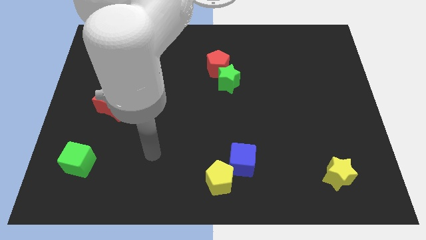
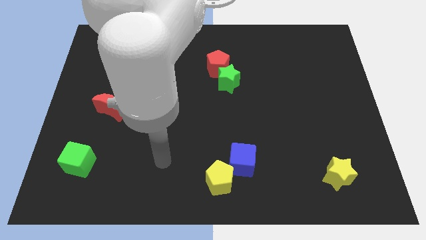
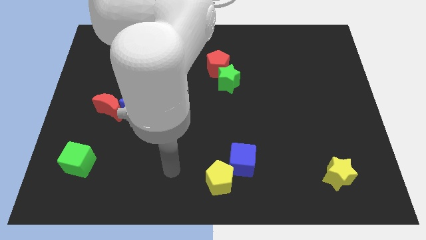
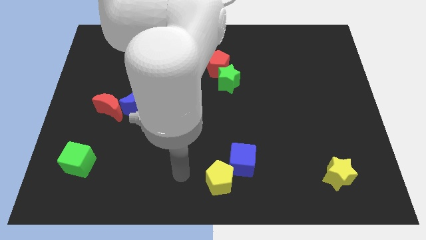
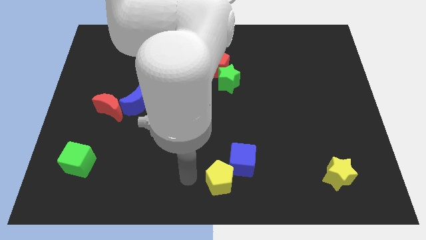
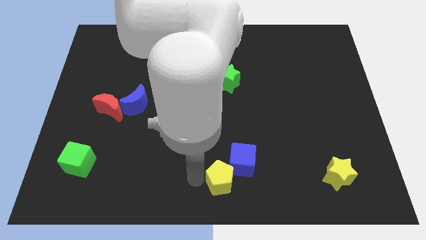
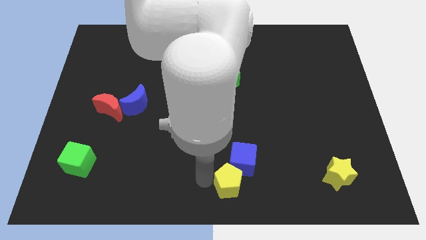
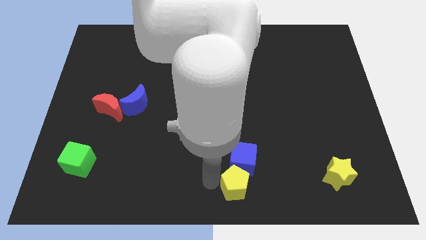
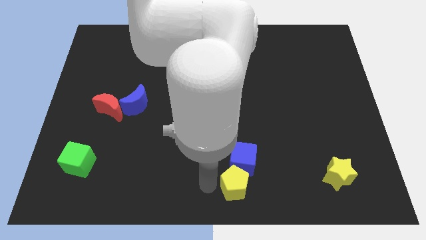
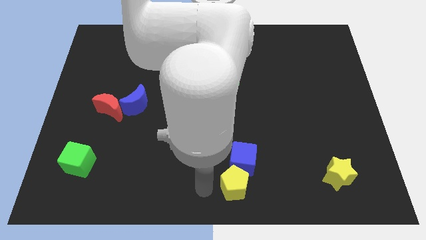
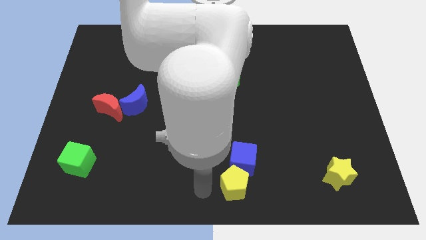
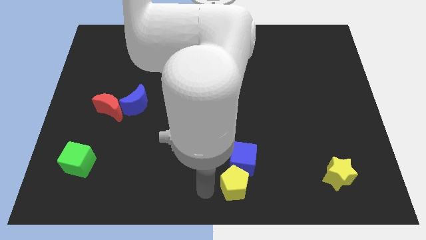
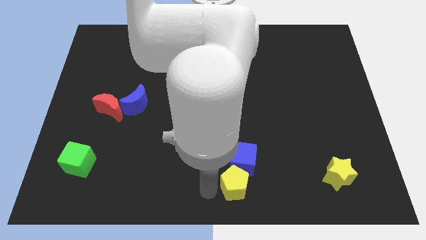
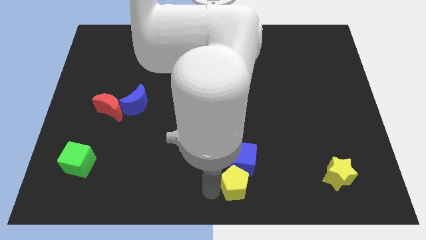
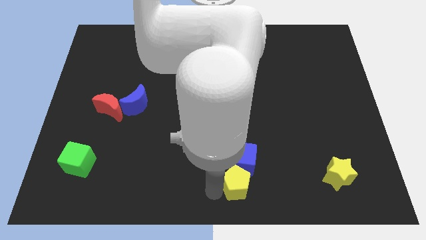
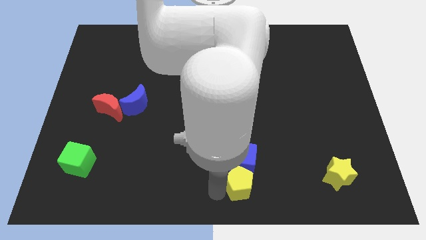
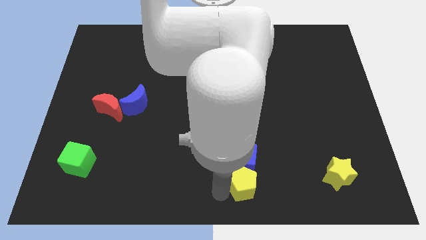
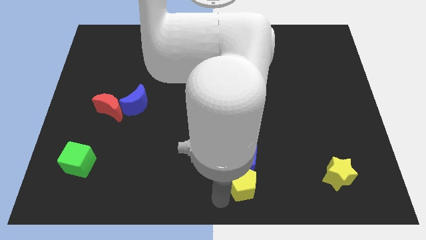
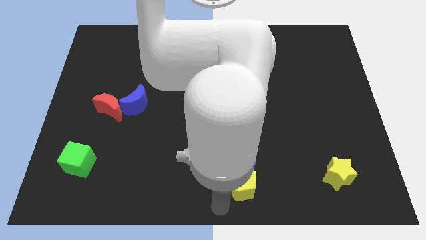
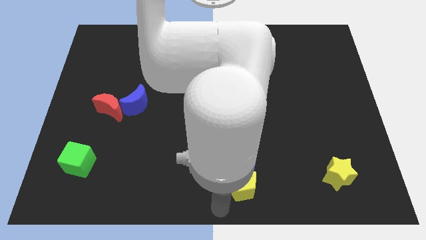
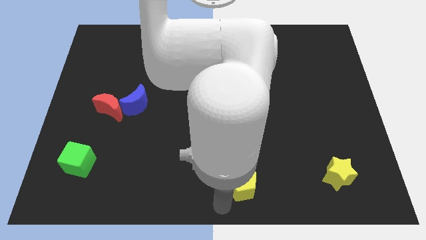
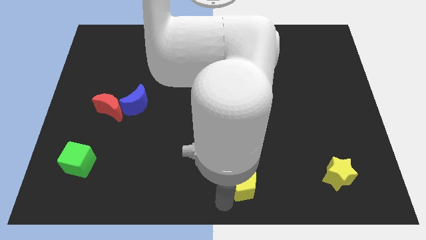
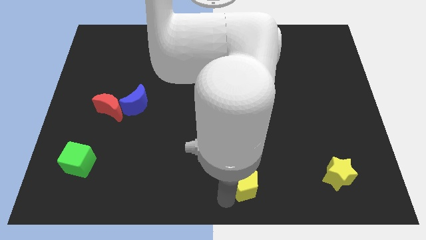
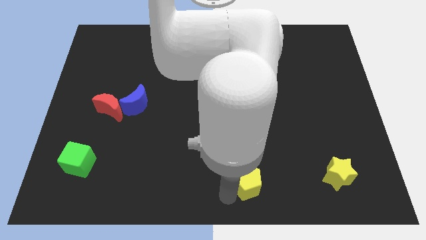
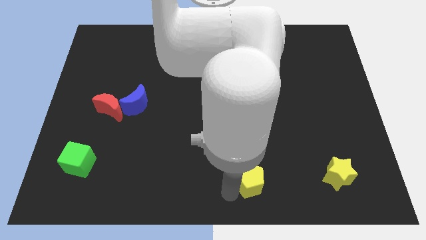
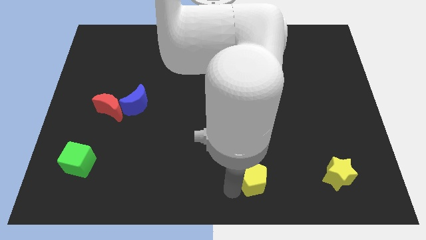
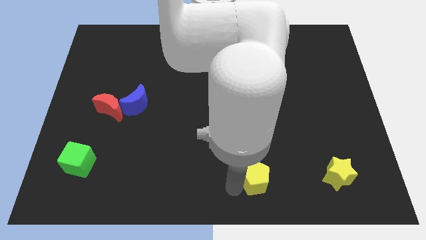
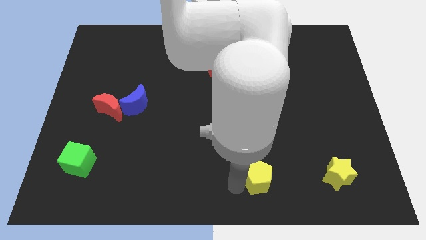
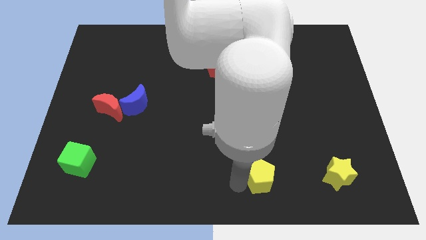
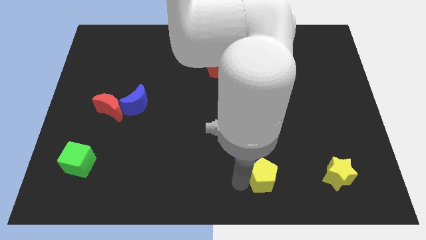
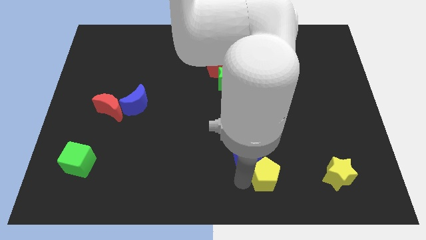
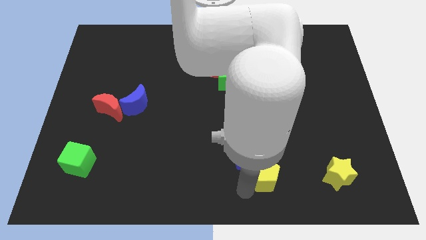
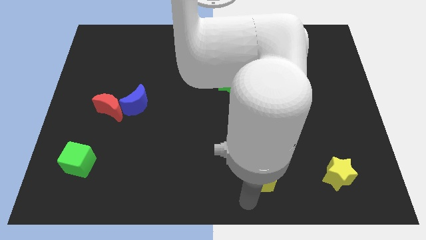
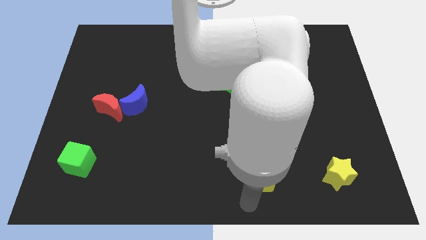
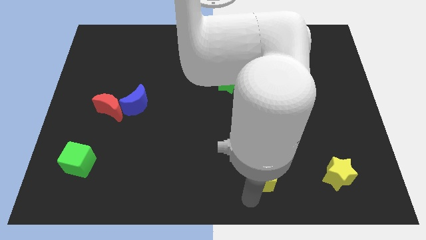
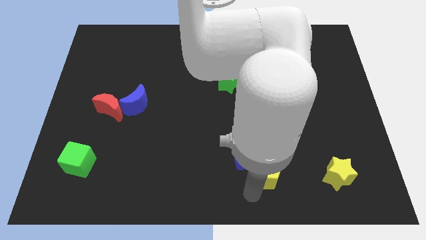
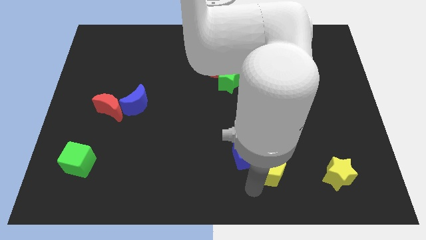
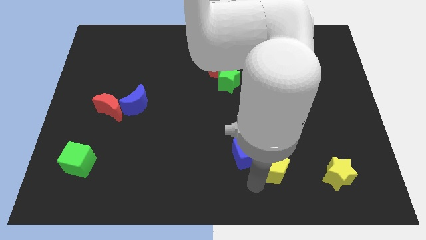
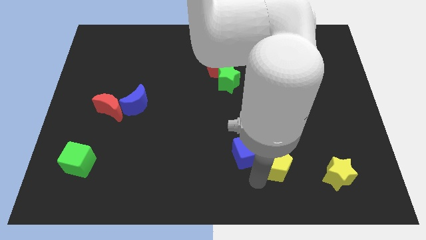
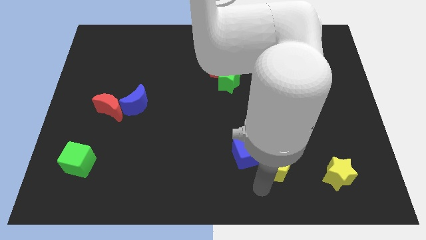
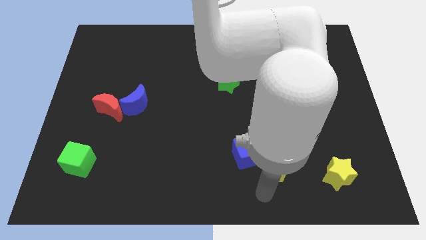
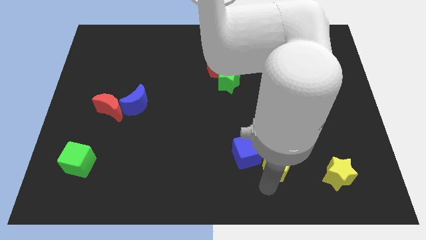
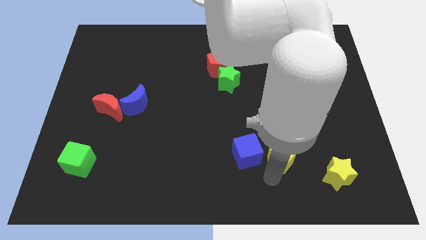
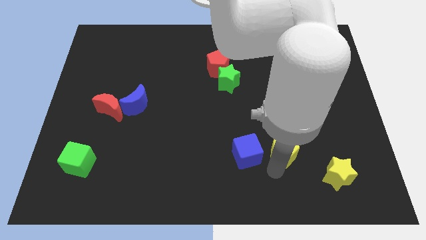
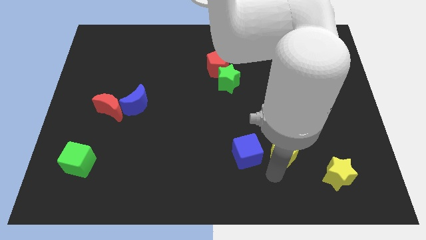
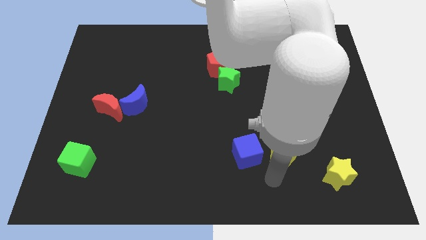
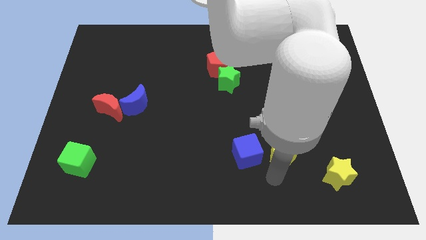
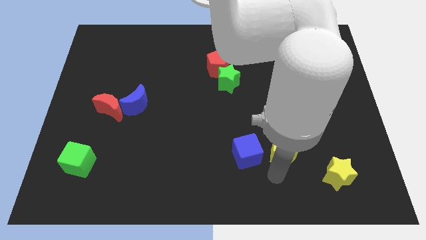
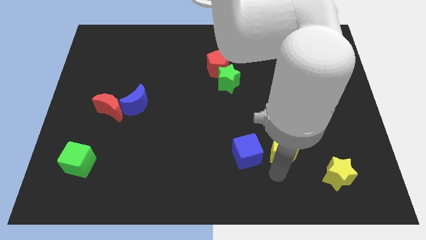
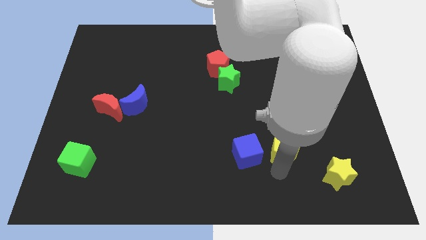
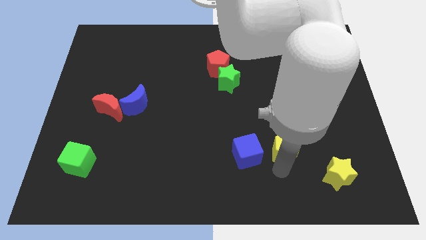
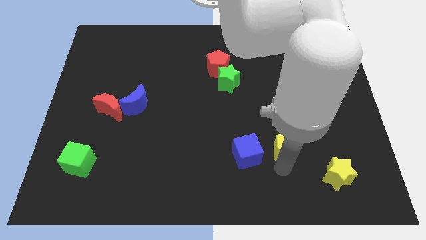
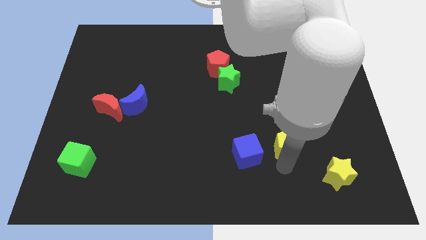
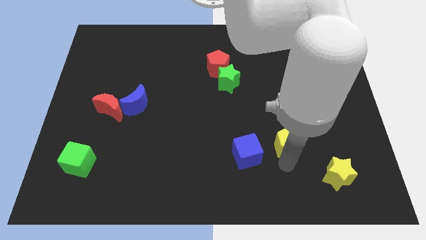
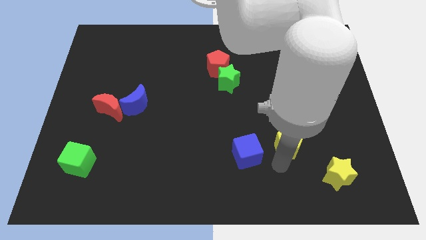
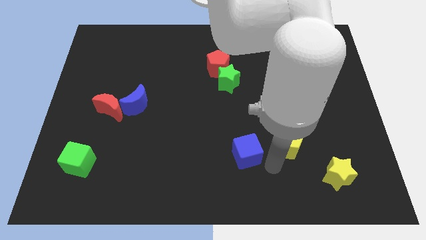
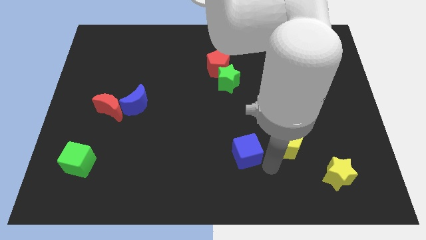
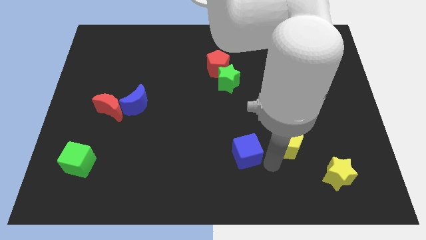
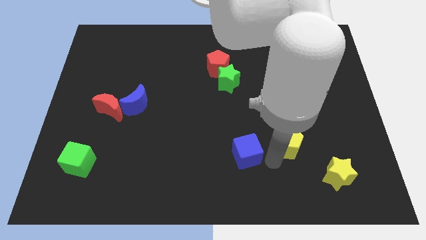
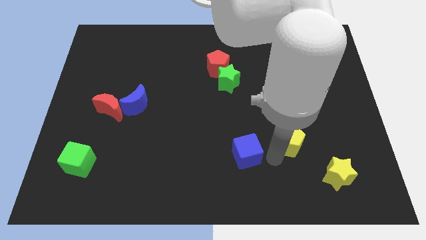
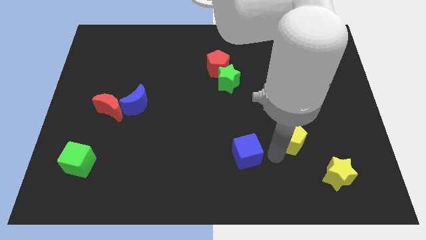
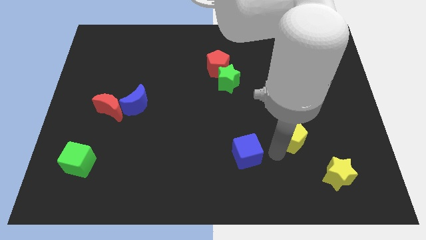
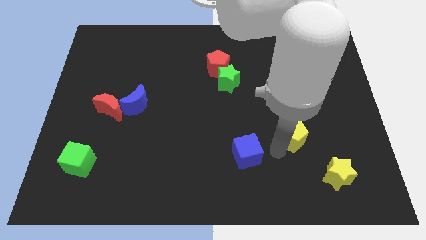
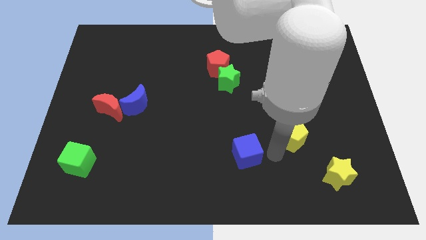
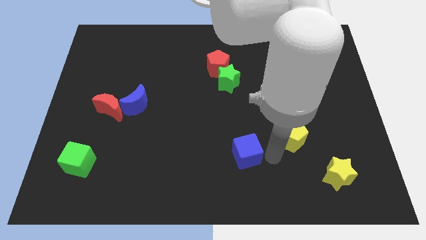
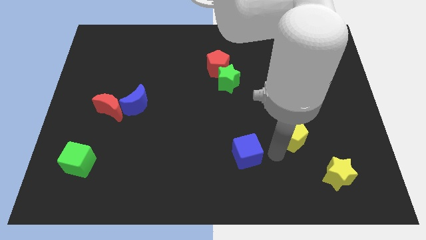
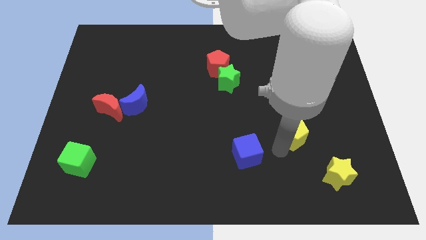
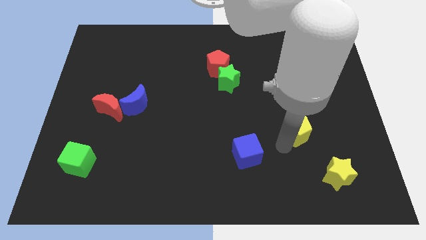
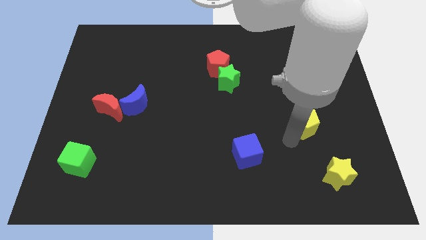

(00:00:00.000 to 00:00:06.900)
move the yellow pentagon up and right diagonally

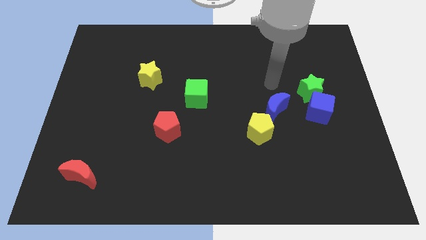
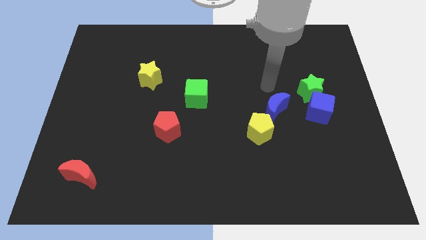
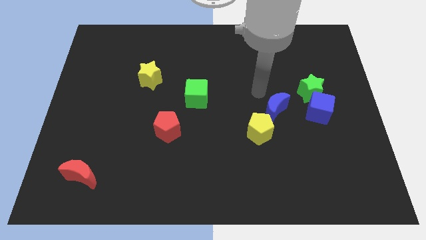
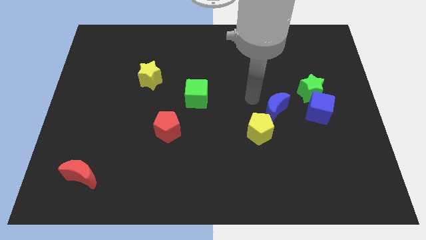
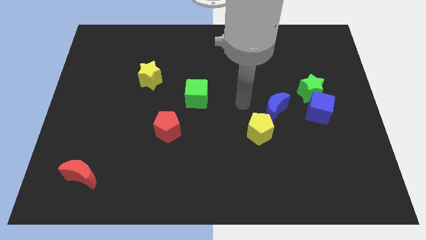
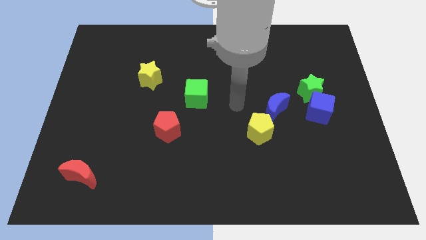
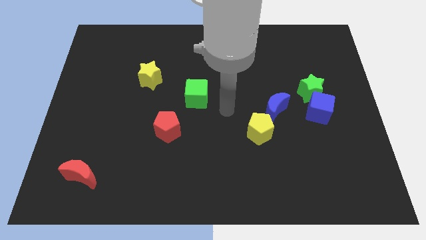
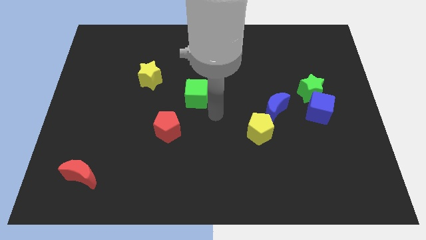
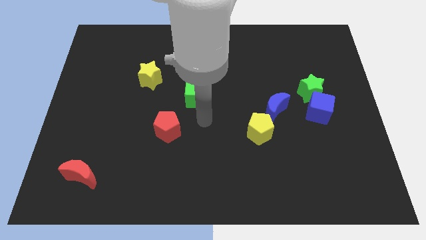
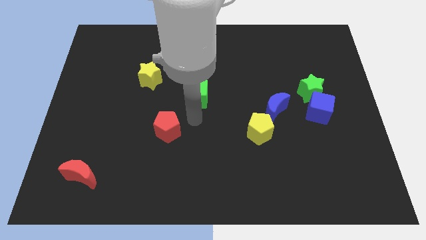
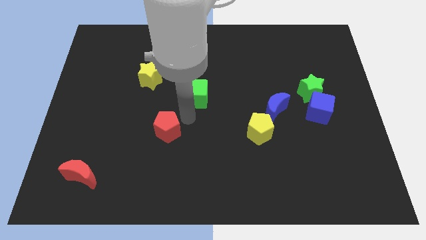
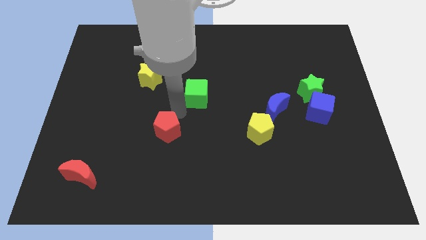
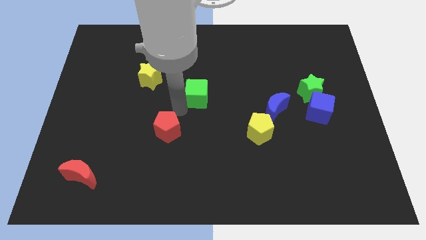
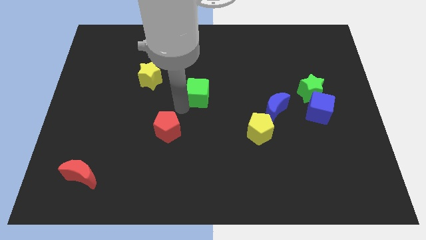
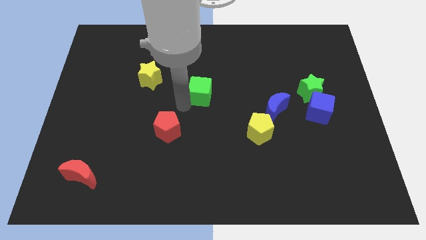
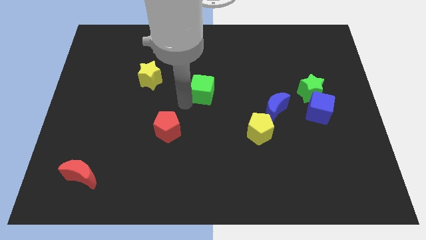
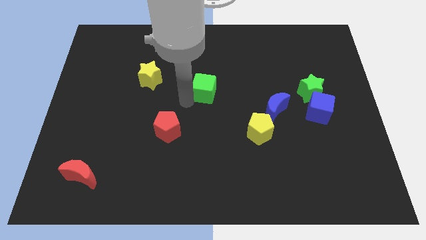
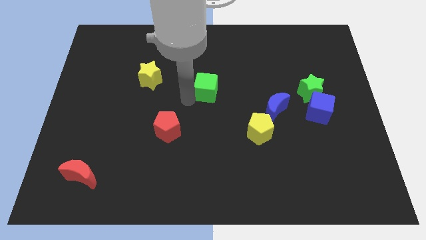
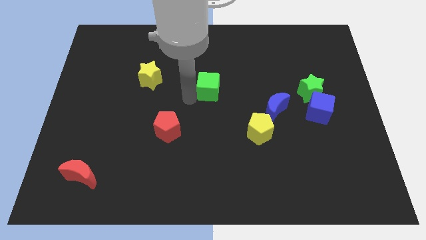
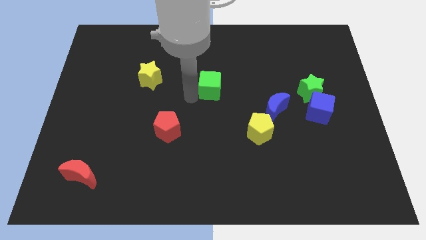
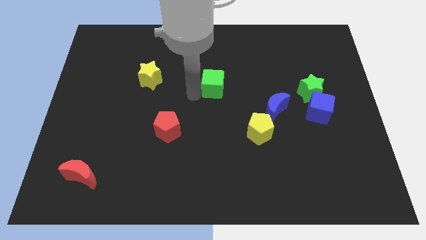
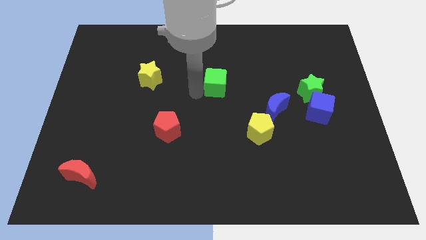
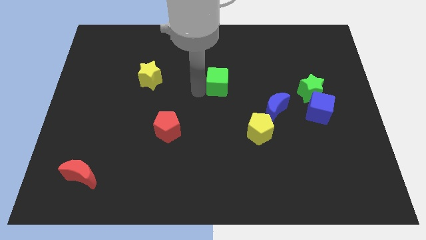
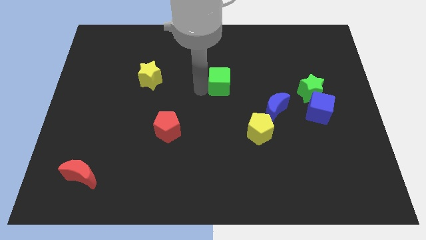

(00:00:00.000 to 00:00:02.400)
push the green cube a bit upwards and then to the right
